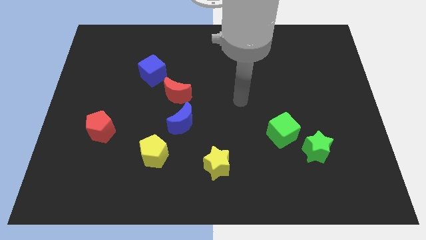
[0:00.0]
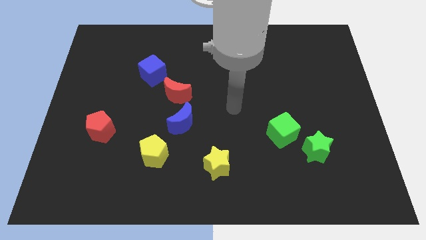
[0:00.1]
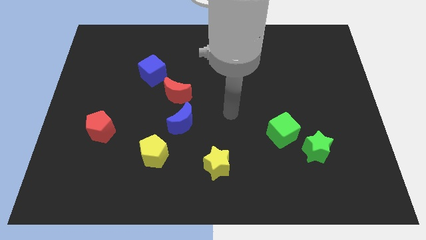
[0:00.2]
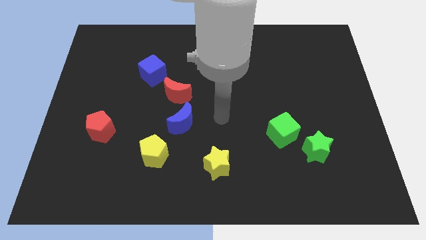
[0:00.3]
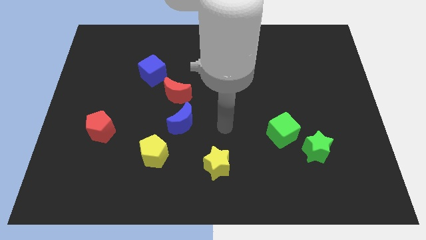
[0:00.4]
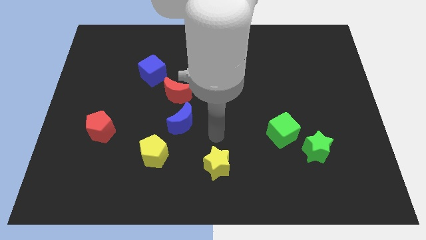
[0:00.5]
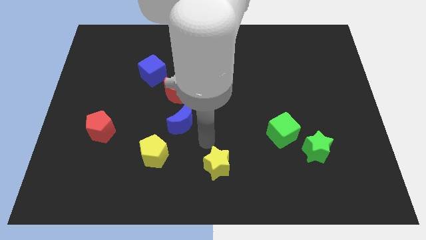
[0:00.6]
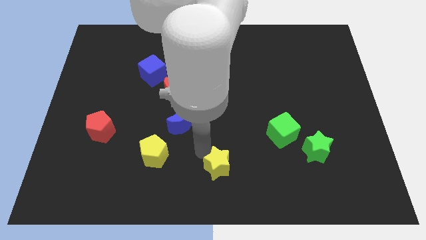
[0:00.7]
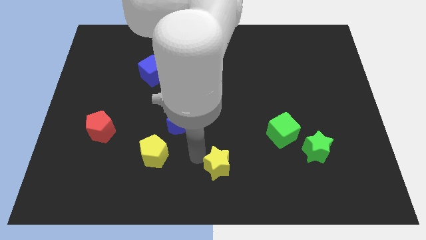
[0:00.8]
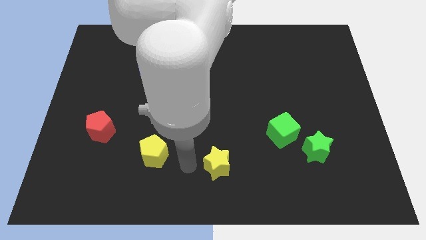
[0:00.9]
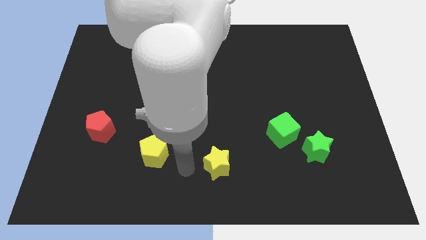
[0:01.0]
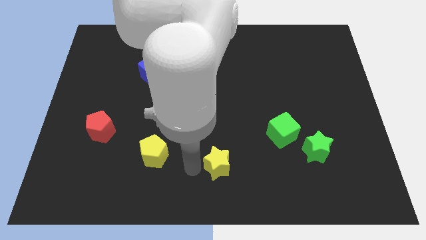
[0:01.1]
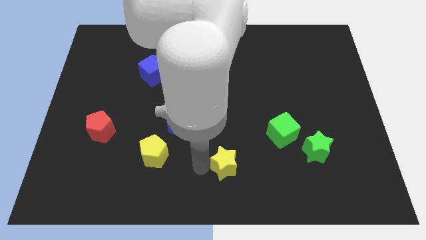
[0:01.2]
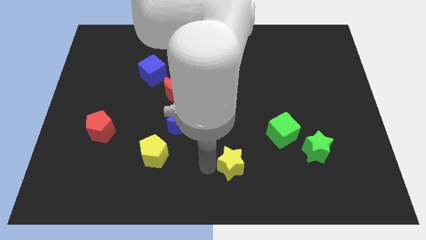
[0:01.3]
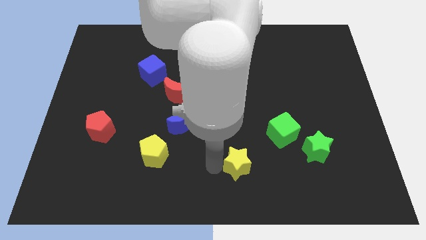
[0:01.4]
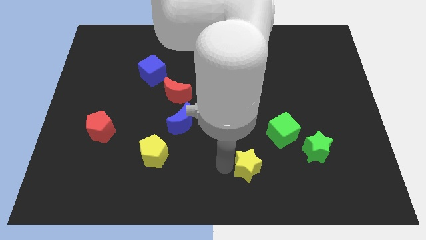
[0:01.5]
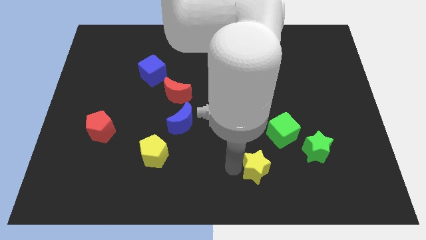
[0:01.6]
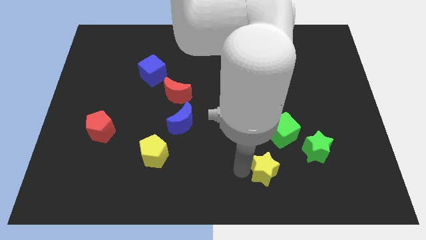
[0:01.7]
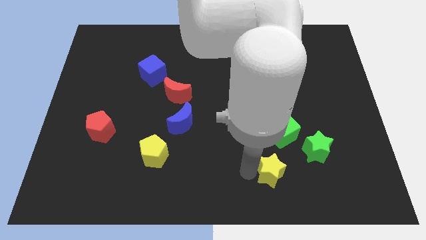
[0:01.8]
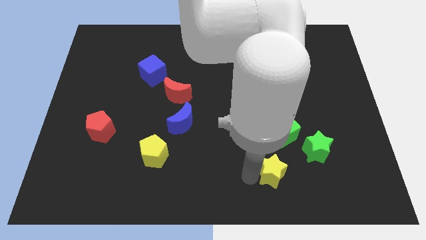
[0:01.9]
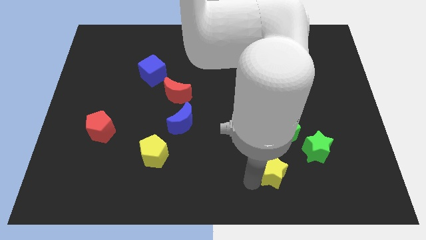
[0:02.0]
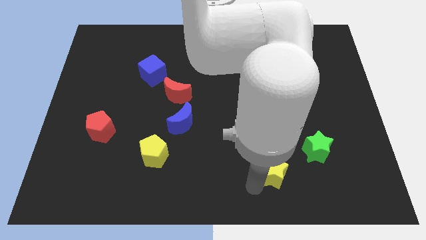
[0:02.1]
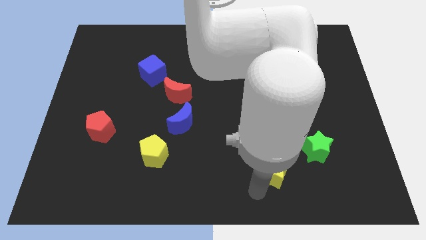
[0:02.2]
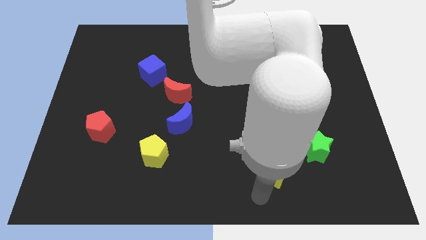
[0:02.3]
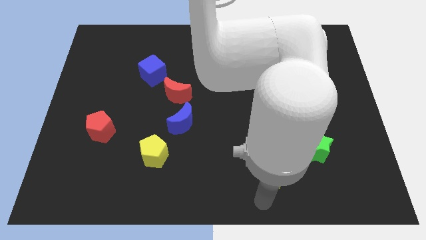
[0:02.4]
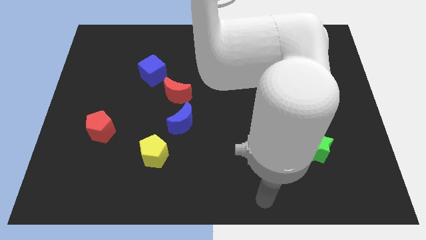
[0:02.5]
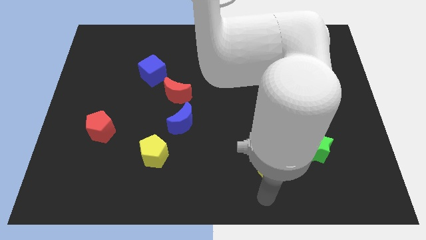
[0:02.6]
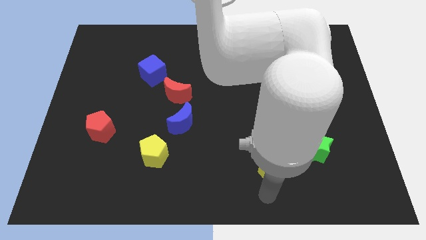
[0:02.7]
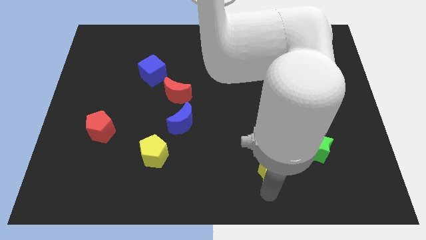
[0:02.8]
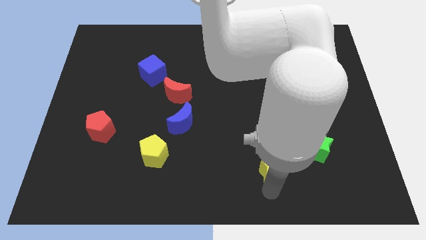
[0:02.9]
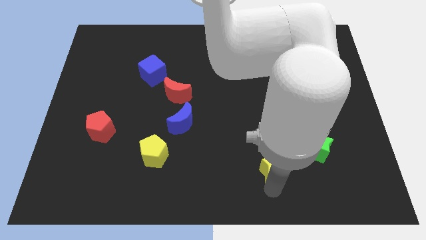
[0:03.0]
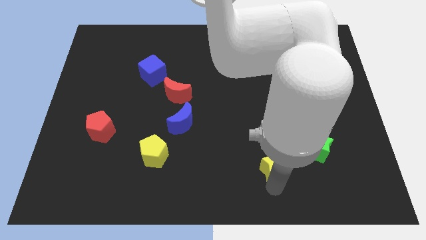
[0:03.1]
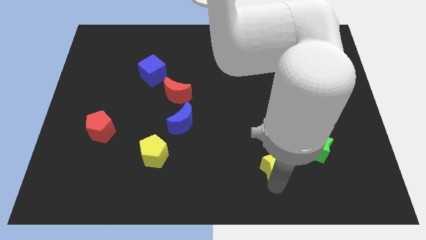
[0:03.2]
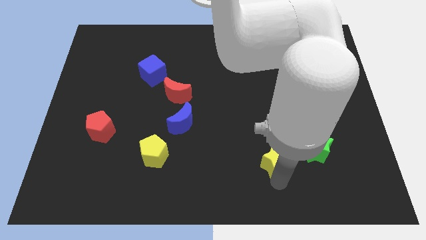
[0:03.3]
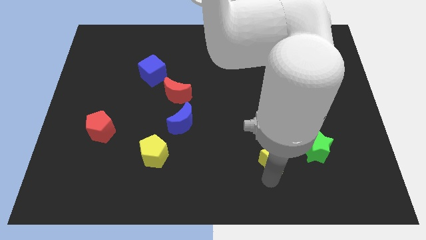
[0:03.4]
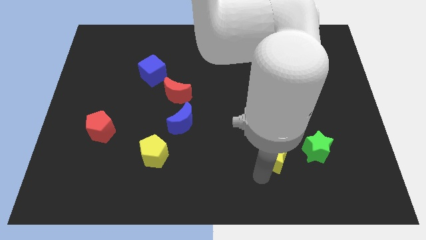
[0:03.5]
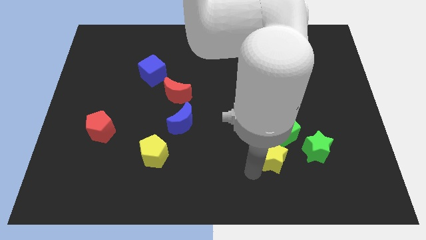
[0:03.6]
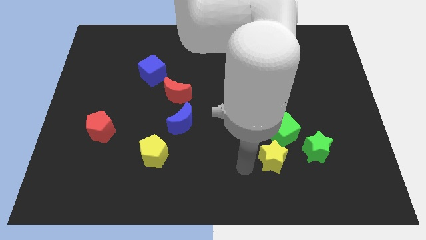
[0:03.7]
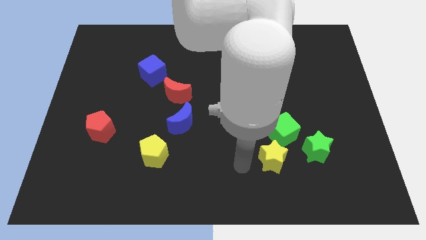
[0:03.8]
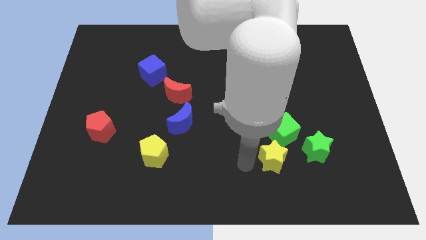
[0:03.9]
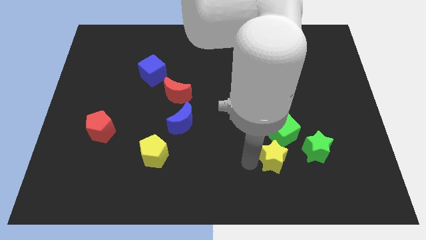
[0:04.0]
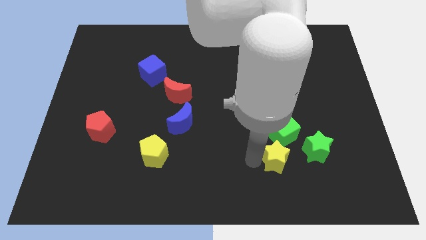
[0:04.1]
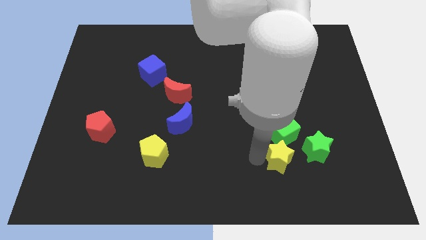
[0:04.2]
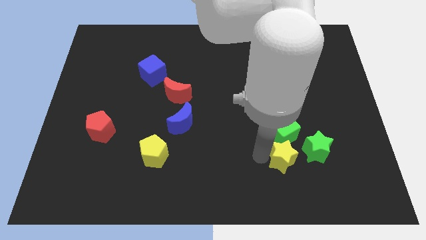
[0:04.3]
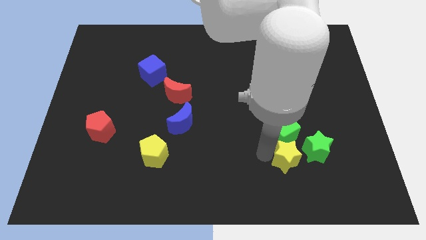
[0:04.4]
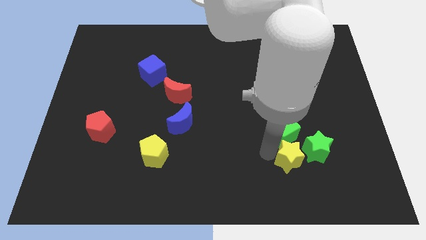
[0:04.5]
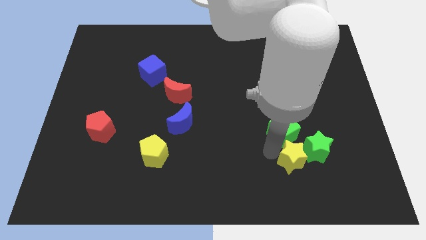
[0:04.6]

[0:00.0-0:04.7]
slide the yellow star next to the green star

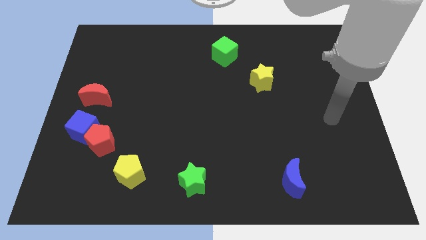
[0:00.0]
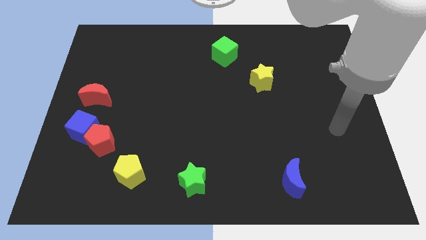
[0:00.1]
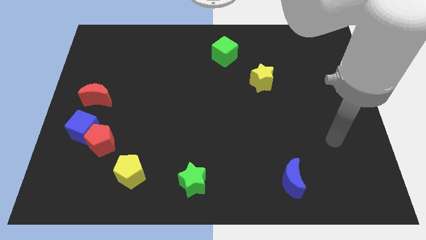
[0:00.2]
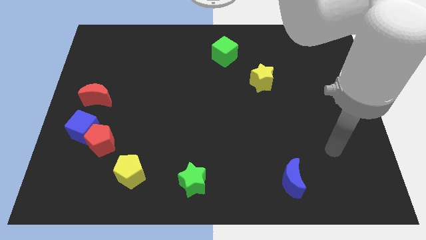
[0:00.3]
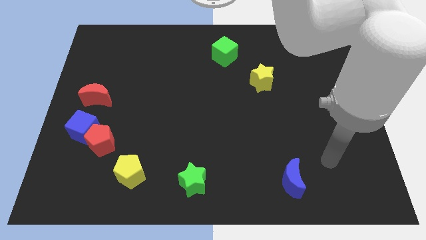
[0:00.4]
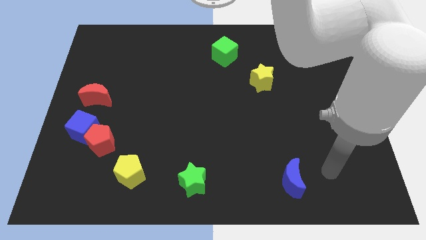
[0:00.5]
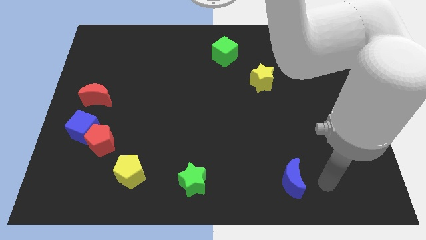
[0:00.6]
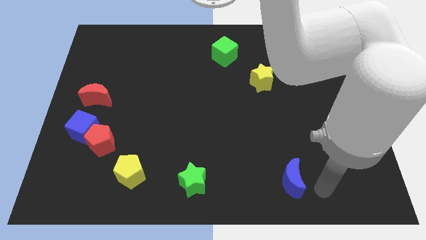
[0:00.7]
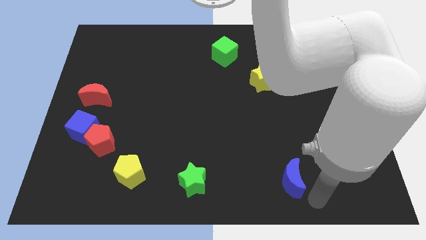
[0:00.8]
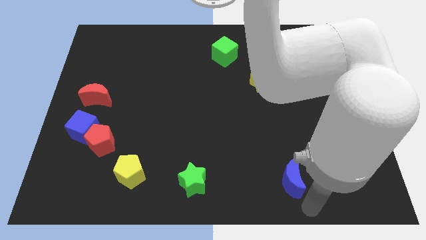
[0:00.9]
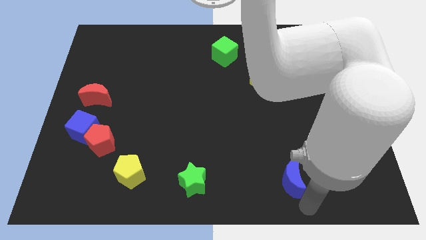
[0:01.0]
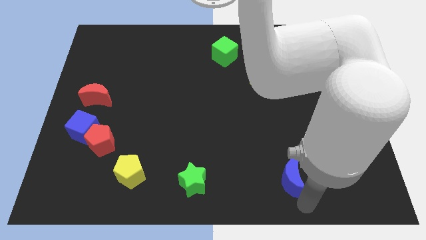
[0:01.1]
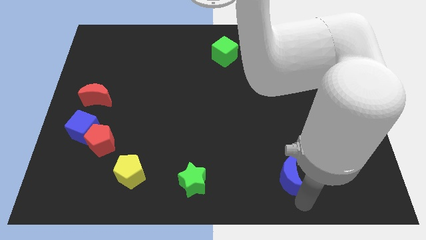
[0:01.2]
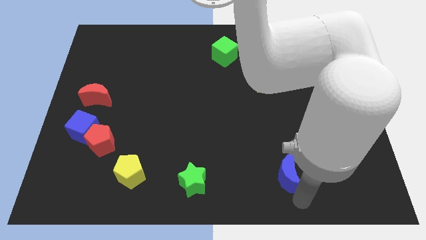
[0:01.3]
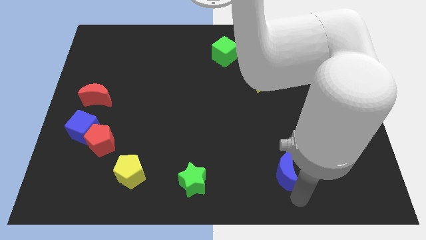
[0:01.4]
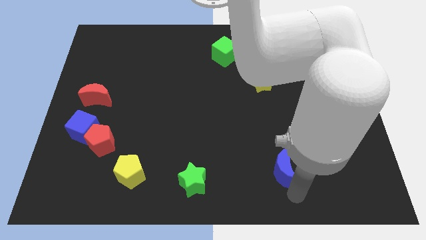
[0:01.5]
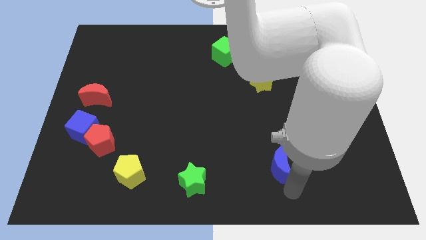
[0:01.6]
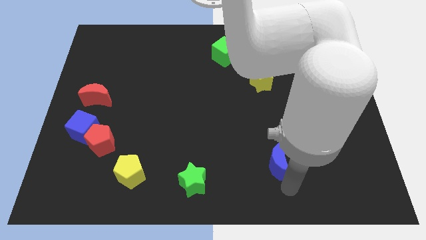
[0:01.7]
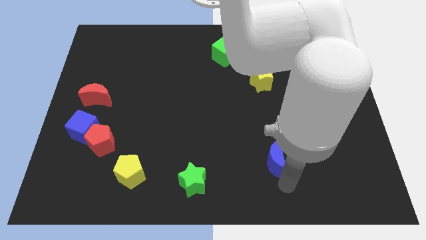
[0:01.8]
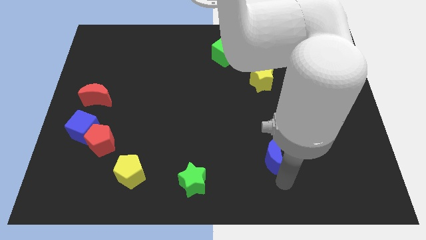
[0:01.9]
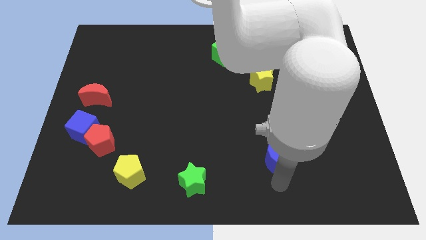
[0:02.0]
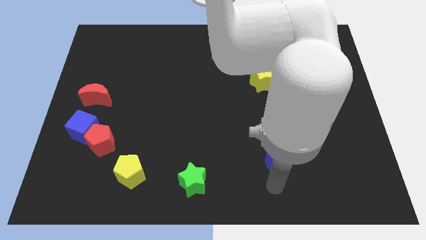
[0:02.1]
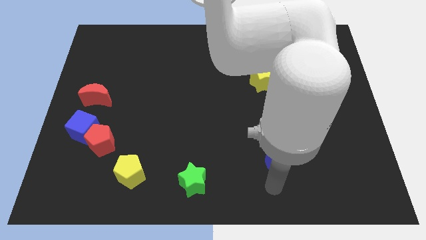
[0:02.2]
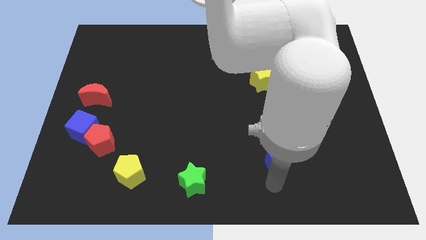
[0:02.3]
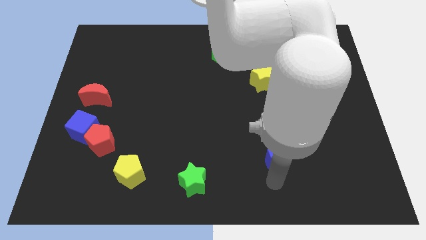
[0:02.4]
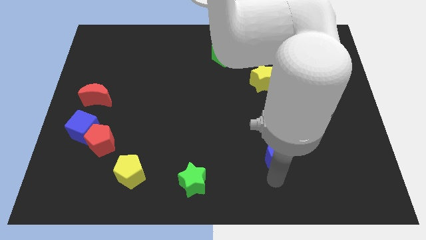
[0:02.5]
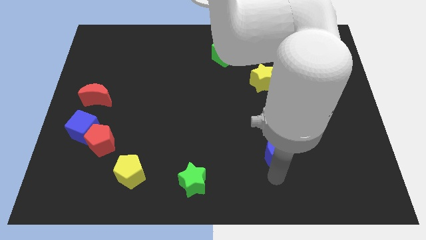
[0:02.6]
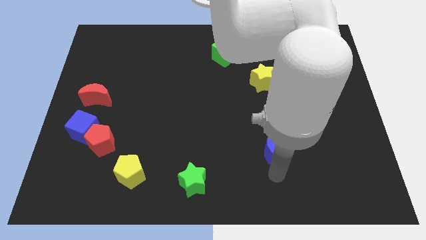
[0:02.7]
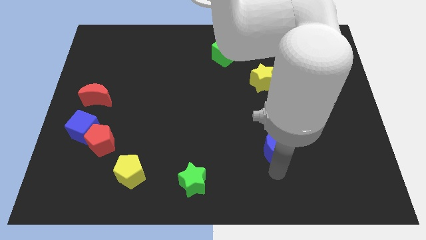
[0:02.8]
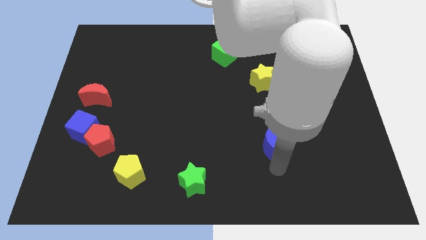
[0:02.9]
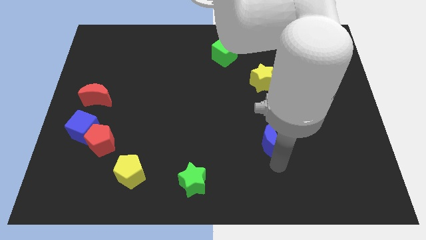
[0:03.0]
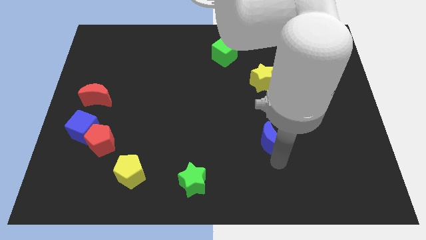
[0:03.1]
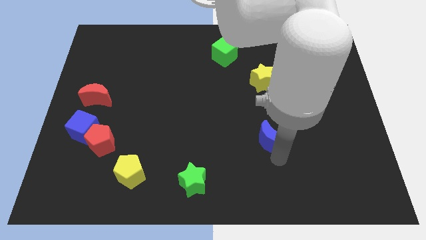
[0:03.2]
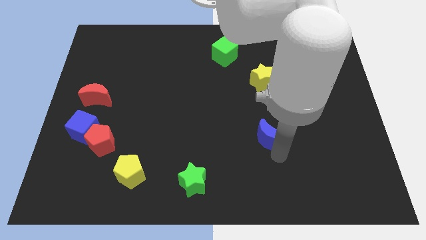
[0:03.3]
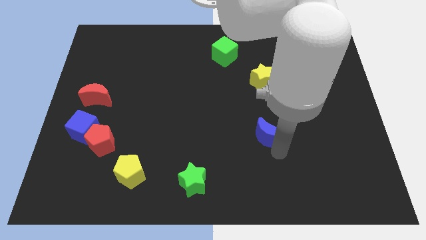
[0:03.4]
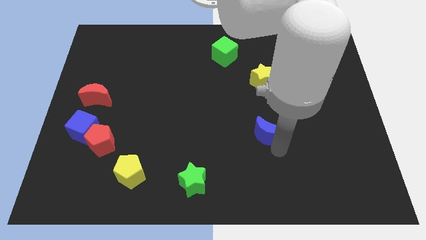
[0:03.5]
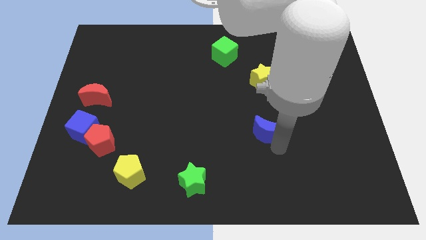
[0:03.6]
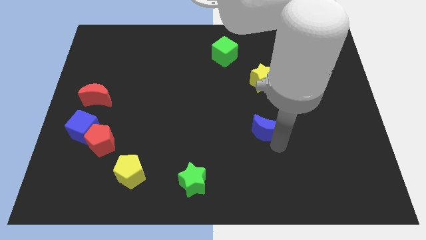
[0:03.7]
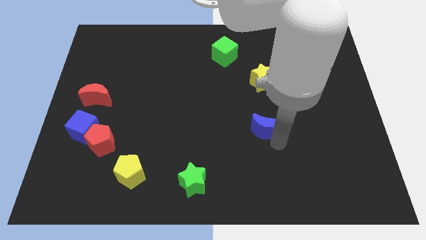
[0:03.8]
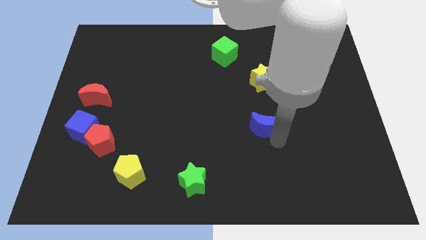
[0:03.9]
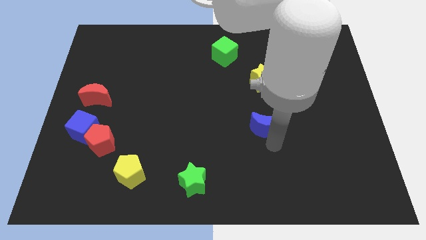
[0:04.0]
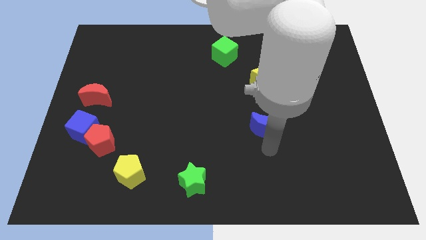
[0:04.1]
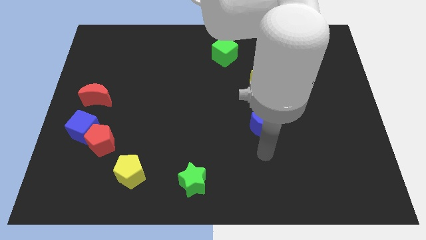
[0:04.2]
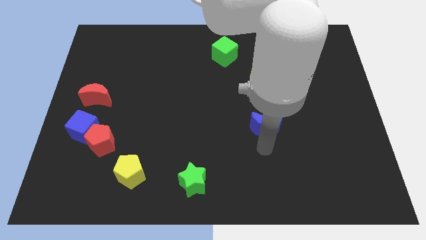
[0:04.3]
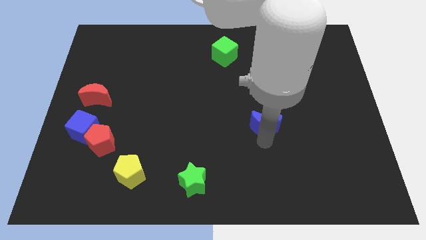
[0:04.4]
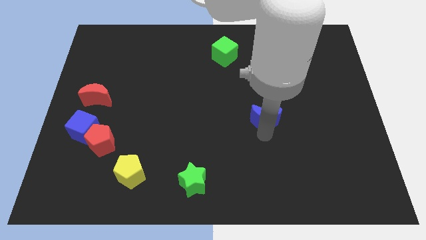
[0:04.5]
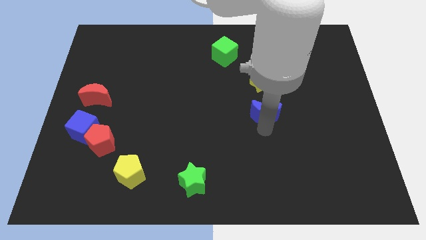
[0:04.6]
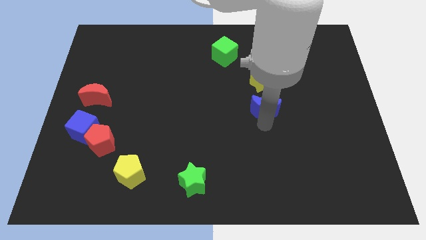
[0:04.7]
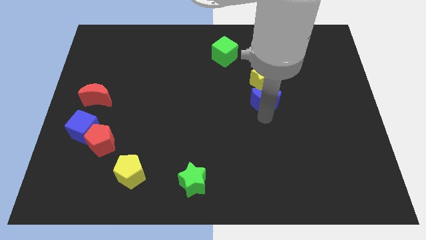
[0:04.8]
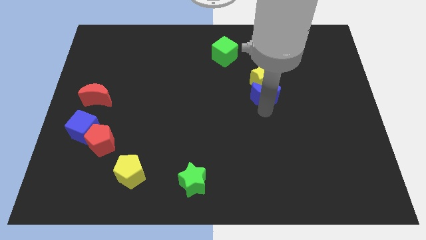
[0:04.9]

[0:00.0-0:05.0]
put the blue moon towards the yellow star
